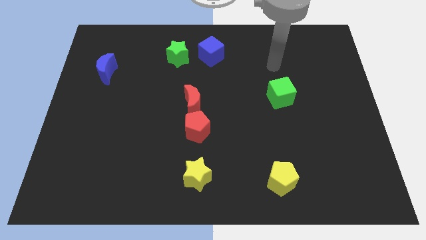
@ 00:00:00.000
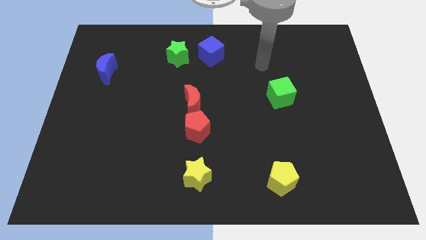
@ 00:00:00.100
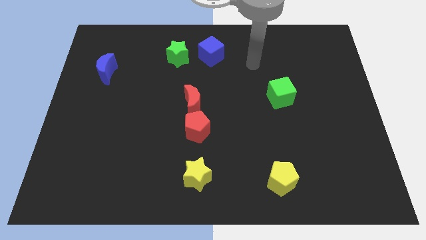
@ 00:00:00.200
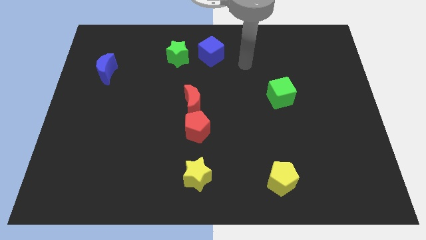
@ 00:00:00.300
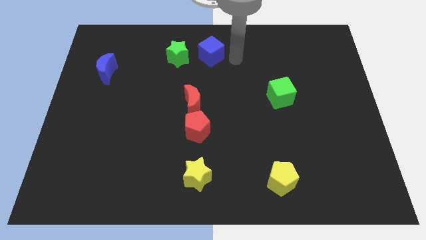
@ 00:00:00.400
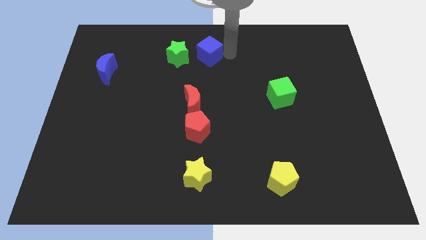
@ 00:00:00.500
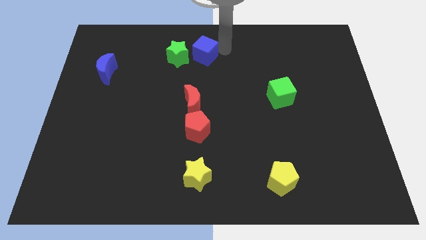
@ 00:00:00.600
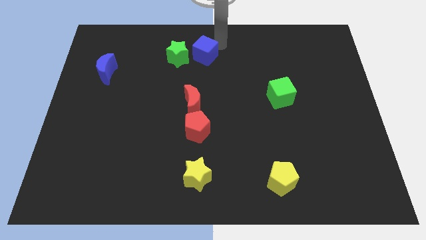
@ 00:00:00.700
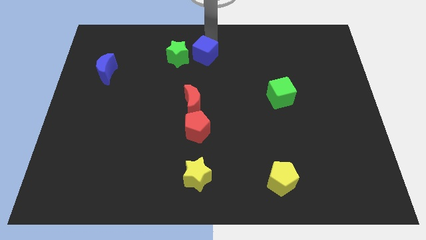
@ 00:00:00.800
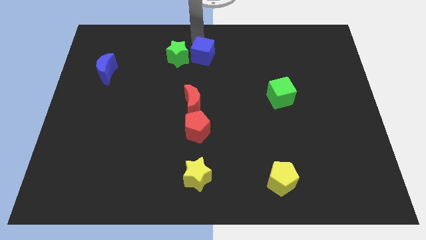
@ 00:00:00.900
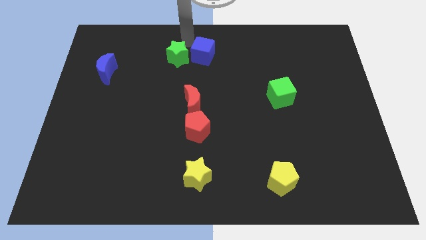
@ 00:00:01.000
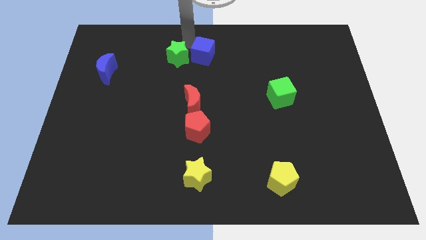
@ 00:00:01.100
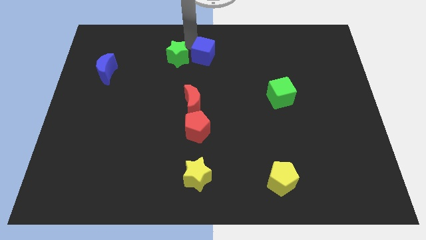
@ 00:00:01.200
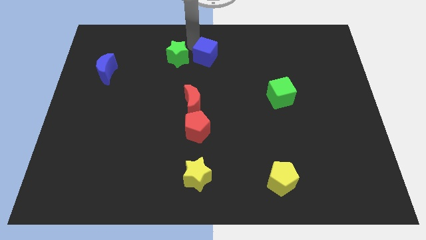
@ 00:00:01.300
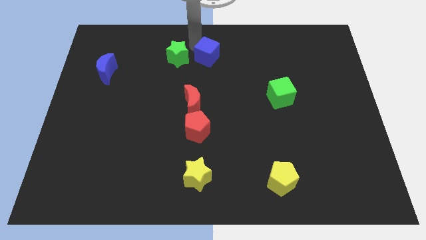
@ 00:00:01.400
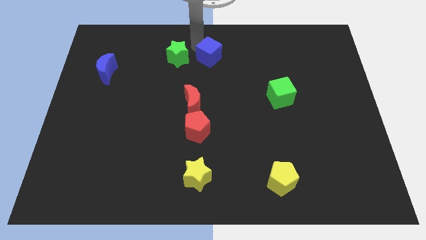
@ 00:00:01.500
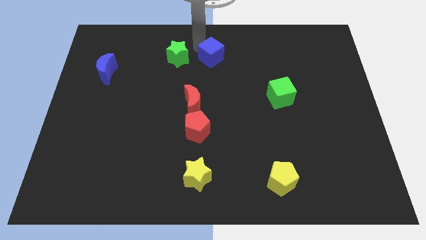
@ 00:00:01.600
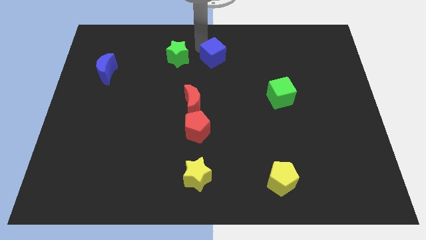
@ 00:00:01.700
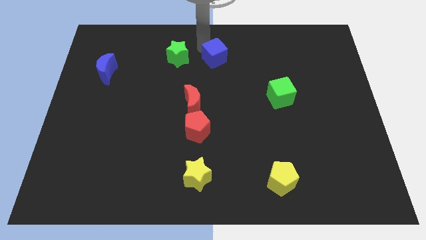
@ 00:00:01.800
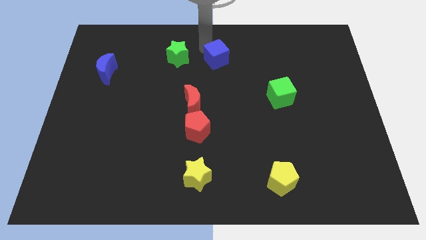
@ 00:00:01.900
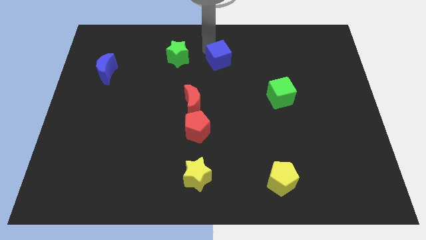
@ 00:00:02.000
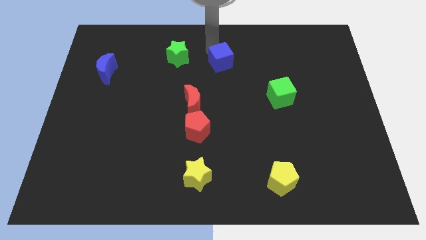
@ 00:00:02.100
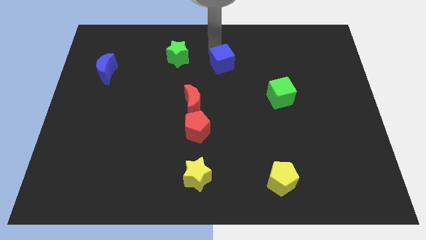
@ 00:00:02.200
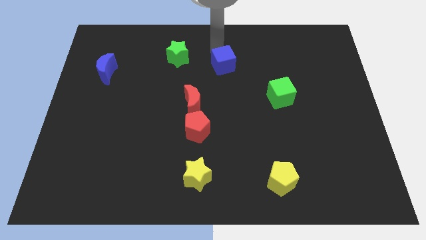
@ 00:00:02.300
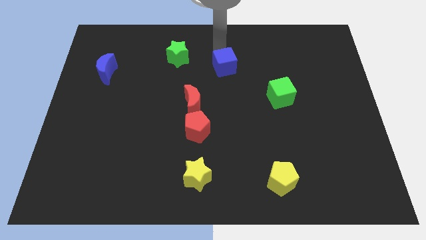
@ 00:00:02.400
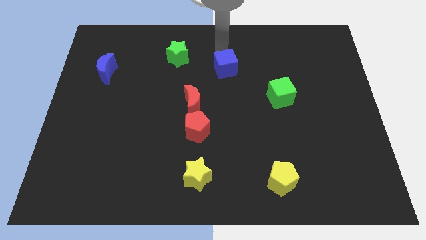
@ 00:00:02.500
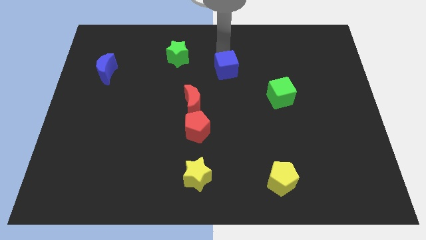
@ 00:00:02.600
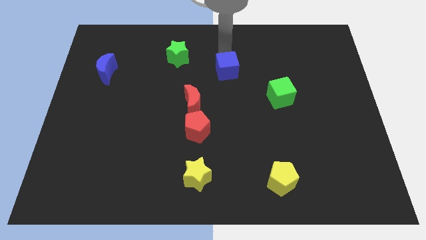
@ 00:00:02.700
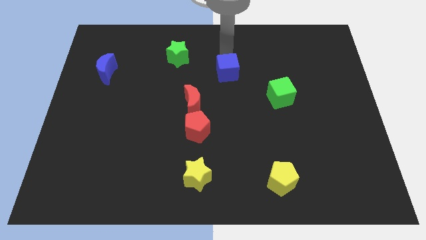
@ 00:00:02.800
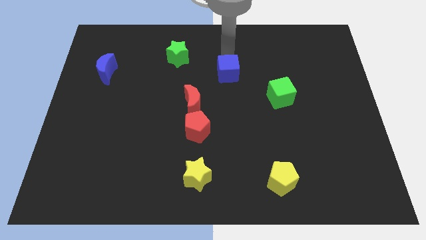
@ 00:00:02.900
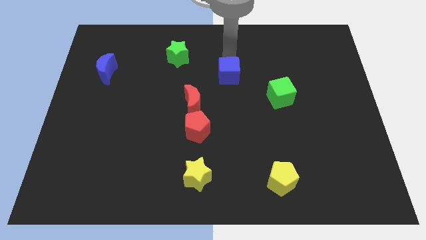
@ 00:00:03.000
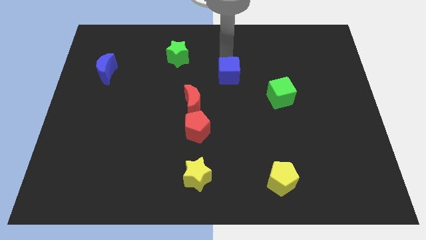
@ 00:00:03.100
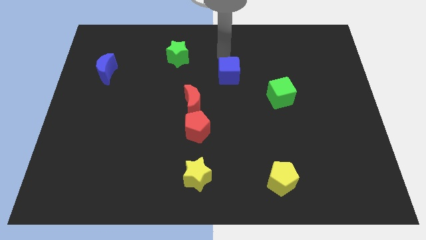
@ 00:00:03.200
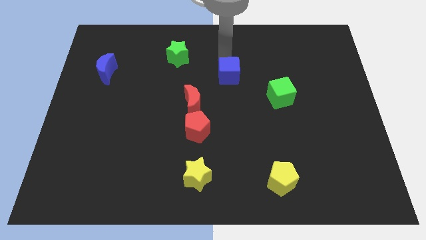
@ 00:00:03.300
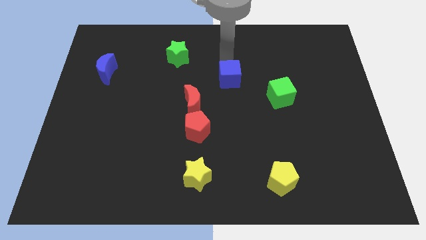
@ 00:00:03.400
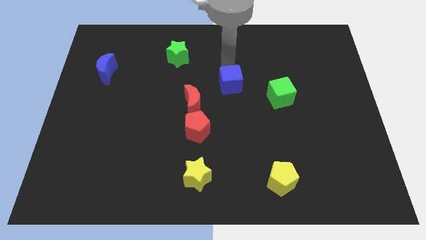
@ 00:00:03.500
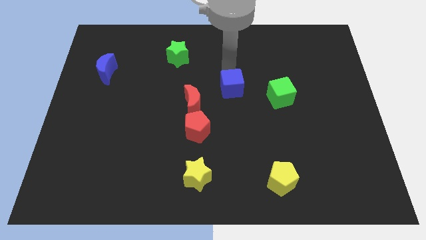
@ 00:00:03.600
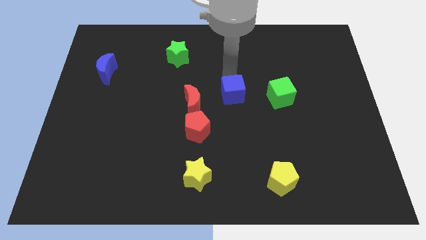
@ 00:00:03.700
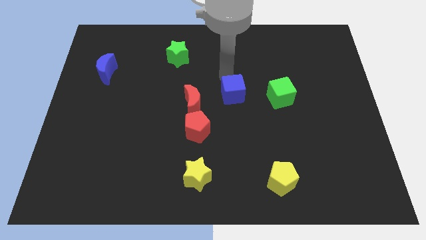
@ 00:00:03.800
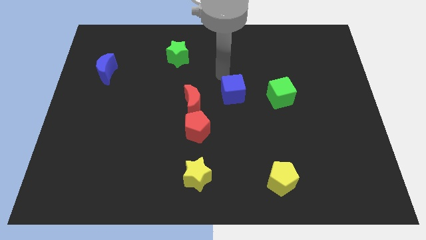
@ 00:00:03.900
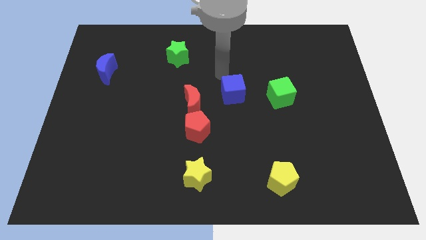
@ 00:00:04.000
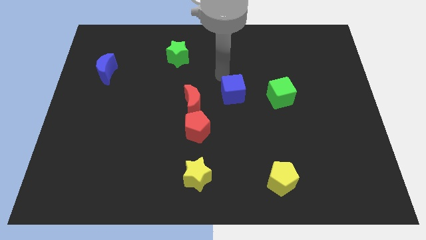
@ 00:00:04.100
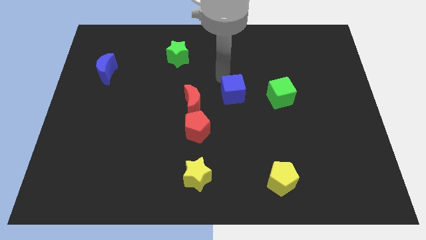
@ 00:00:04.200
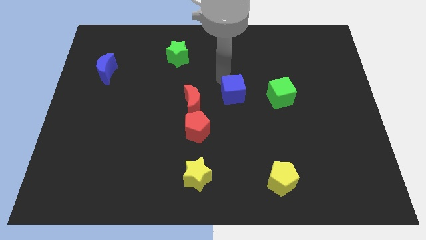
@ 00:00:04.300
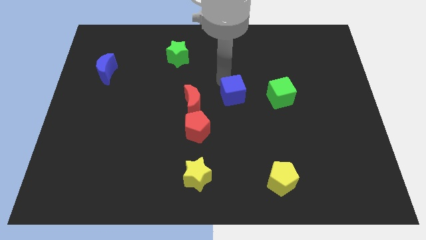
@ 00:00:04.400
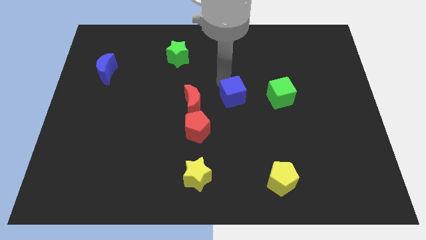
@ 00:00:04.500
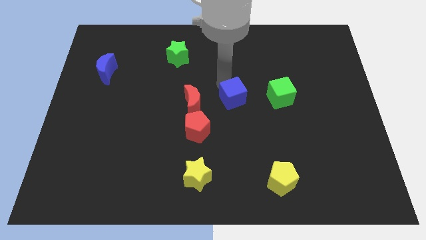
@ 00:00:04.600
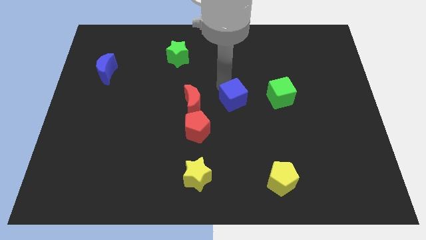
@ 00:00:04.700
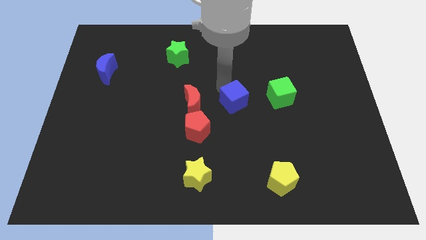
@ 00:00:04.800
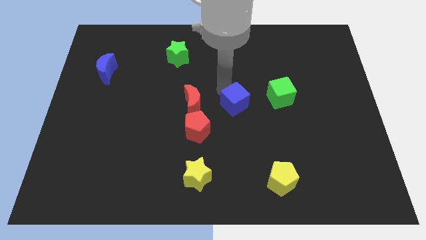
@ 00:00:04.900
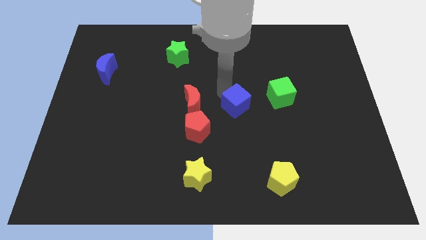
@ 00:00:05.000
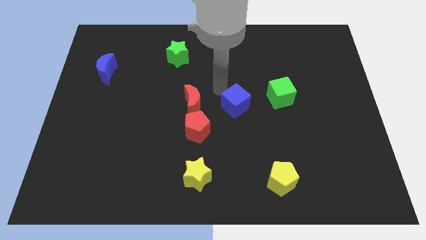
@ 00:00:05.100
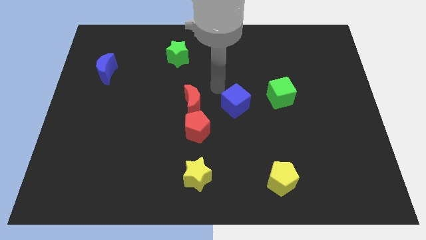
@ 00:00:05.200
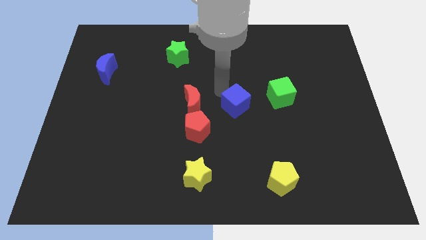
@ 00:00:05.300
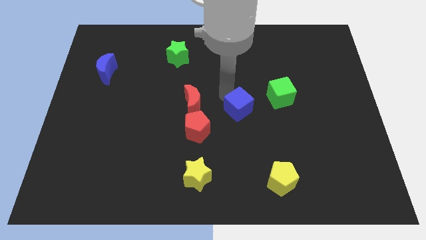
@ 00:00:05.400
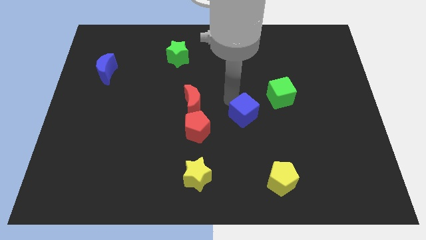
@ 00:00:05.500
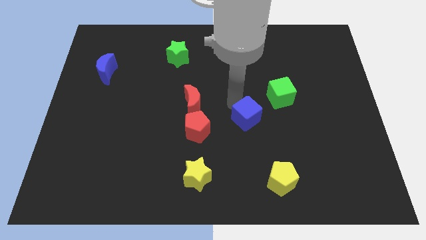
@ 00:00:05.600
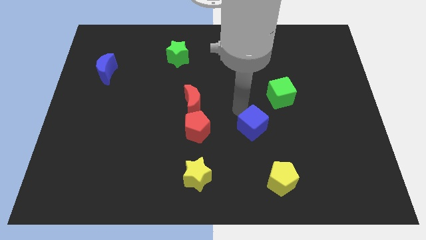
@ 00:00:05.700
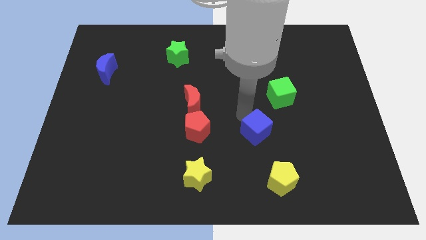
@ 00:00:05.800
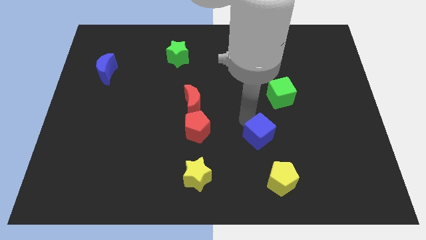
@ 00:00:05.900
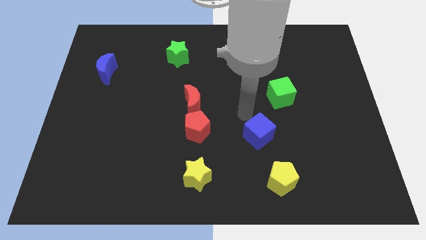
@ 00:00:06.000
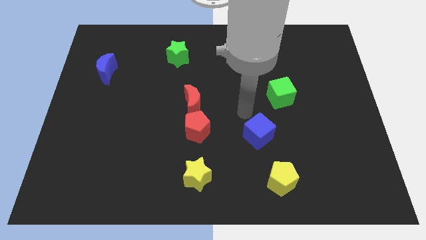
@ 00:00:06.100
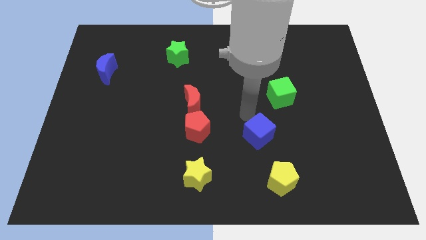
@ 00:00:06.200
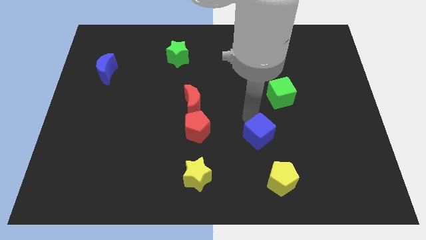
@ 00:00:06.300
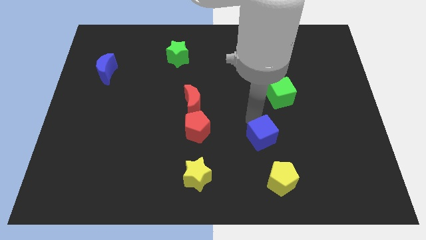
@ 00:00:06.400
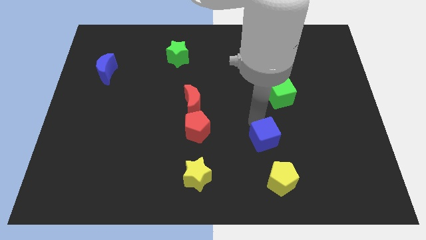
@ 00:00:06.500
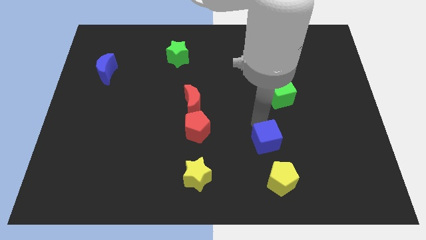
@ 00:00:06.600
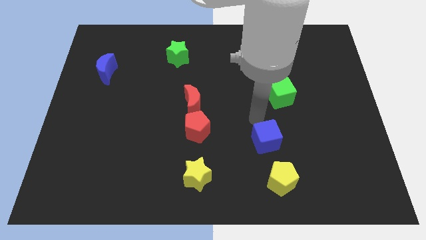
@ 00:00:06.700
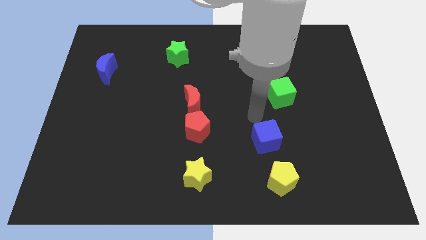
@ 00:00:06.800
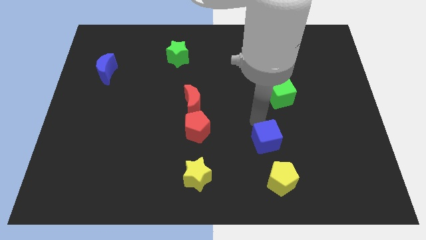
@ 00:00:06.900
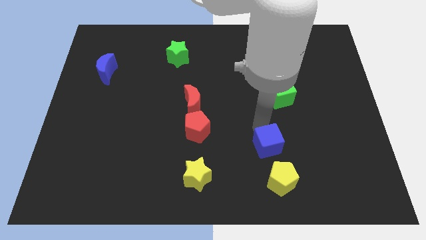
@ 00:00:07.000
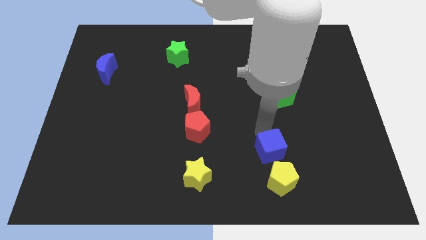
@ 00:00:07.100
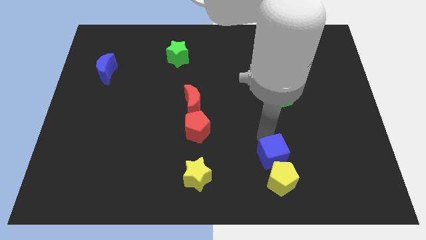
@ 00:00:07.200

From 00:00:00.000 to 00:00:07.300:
put the blue cube to the yellow pentagon
